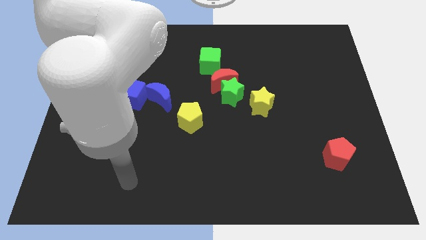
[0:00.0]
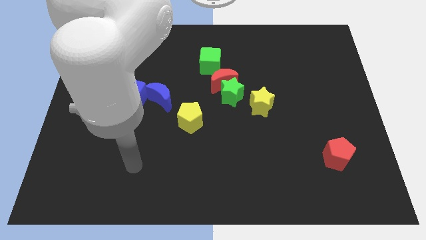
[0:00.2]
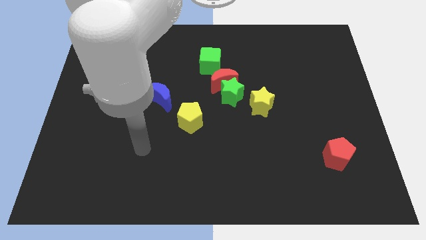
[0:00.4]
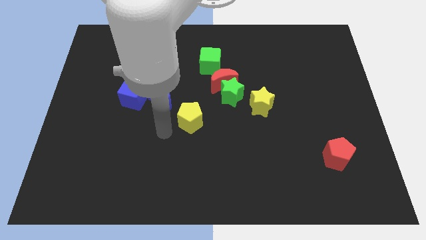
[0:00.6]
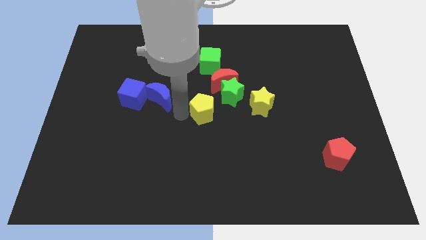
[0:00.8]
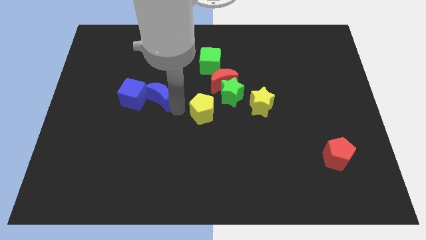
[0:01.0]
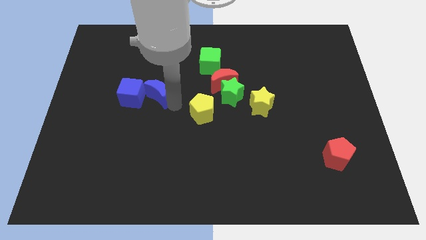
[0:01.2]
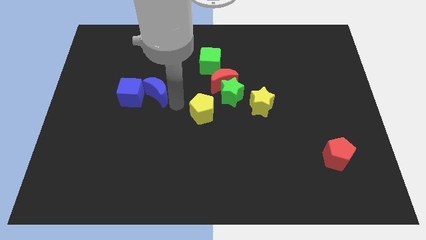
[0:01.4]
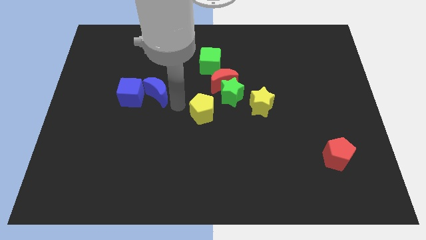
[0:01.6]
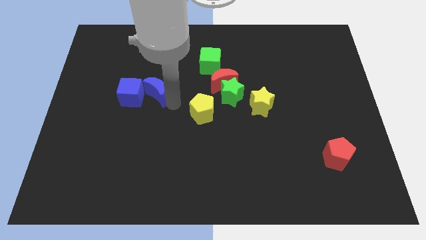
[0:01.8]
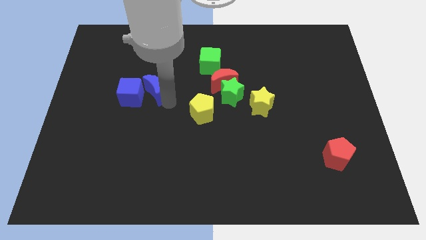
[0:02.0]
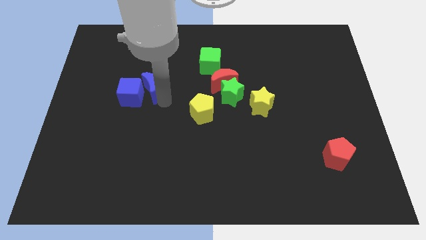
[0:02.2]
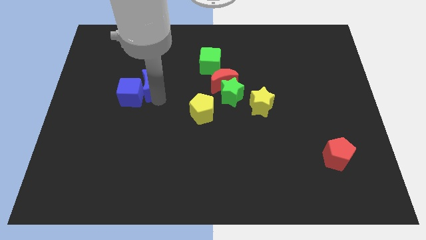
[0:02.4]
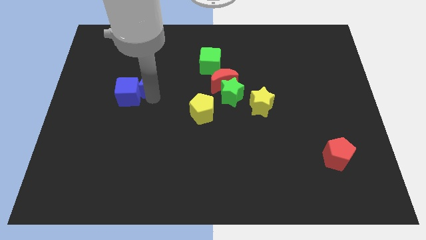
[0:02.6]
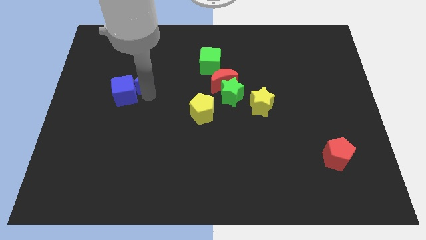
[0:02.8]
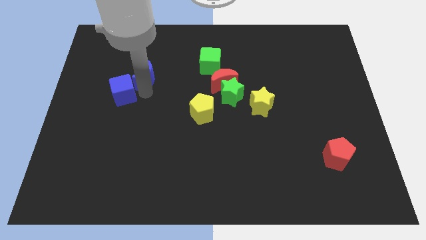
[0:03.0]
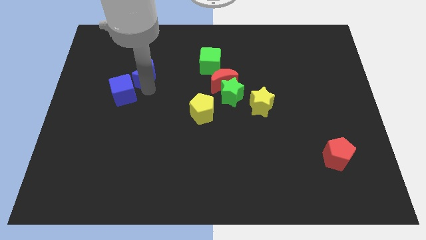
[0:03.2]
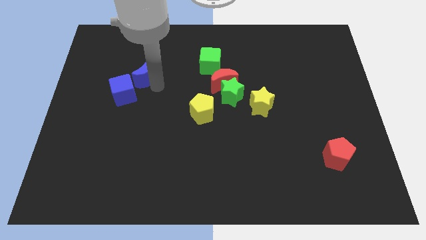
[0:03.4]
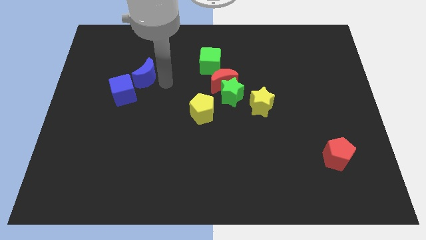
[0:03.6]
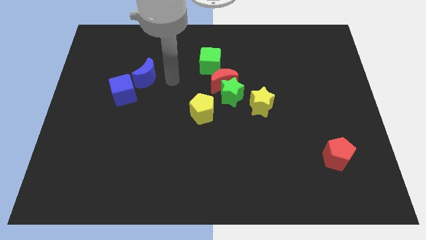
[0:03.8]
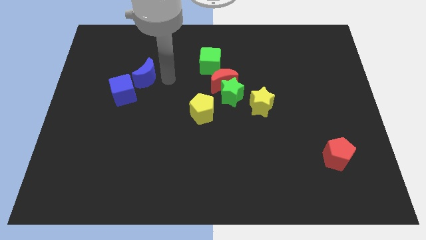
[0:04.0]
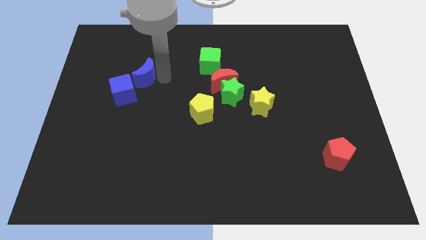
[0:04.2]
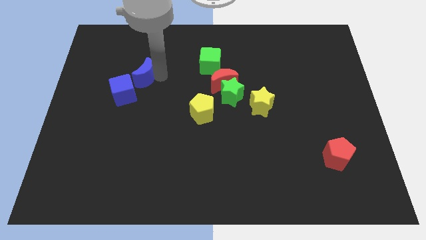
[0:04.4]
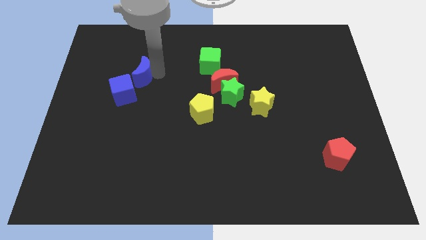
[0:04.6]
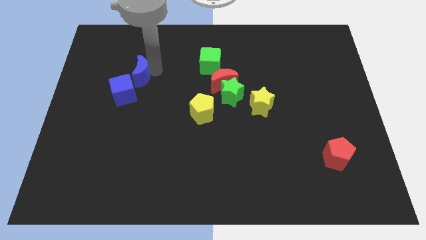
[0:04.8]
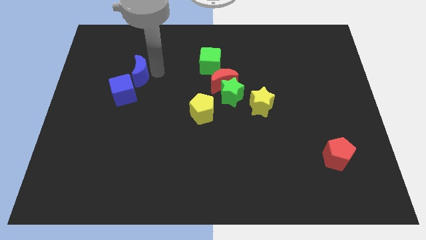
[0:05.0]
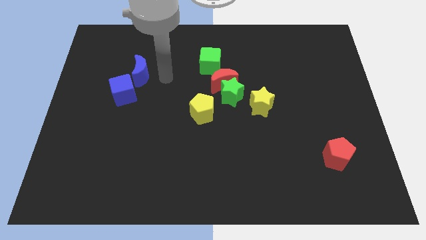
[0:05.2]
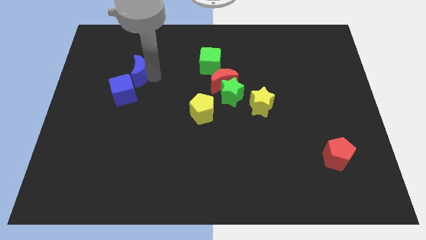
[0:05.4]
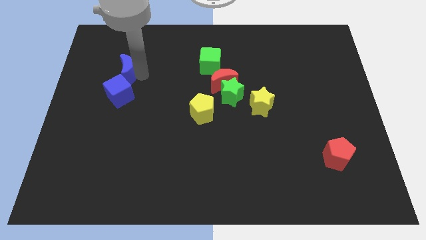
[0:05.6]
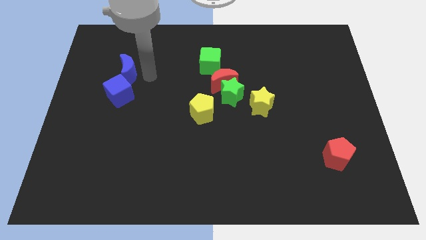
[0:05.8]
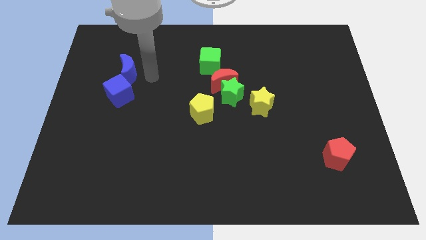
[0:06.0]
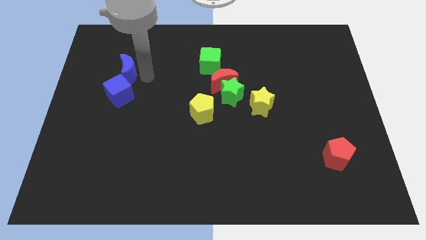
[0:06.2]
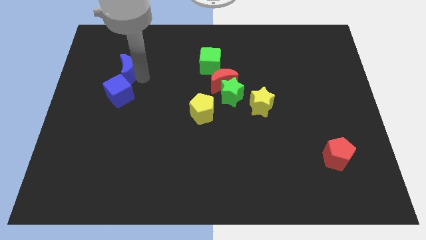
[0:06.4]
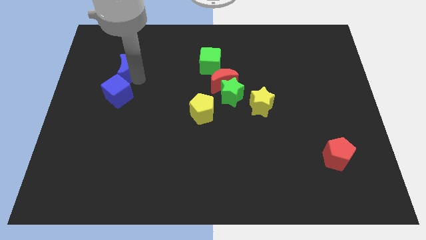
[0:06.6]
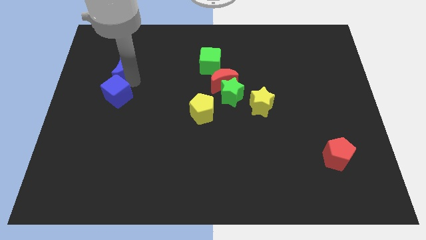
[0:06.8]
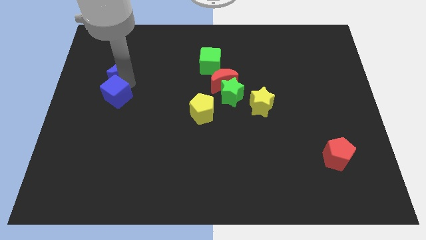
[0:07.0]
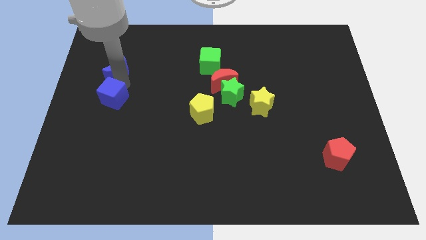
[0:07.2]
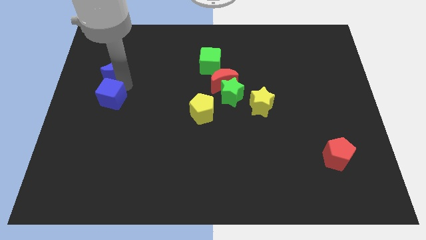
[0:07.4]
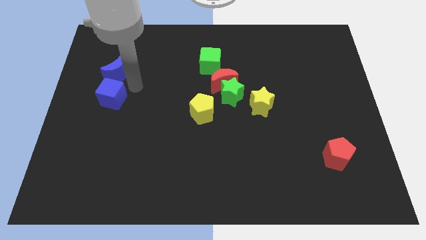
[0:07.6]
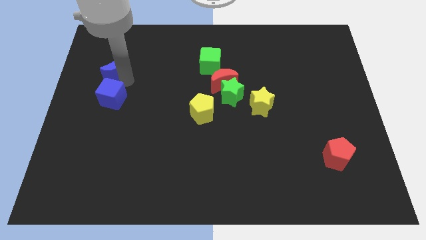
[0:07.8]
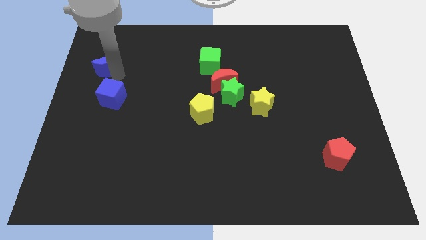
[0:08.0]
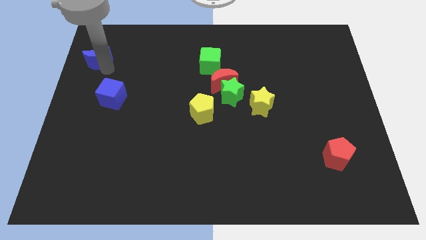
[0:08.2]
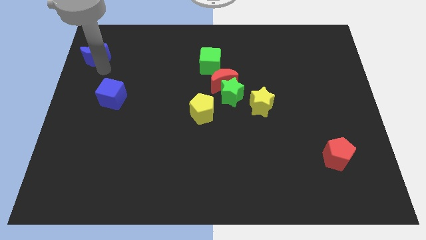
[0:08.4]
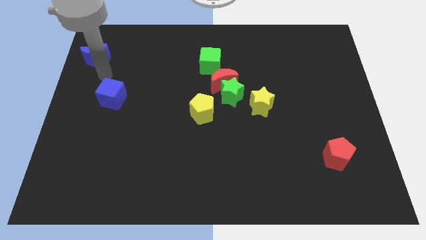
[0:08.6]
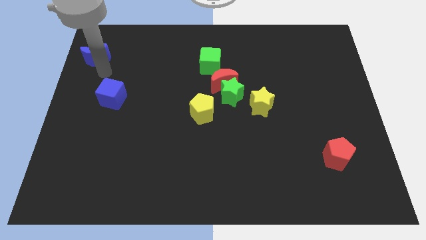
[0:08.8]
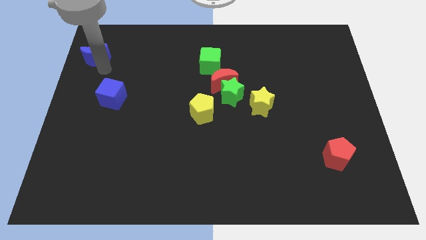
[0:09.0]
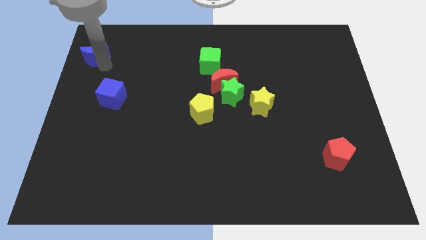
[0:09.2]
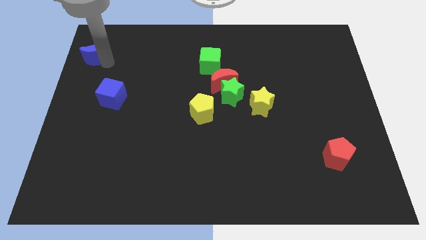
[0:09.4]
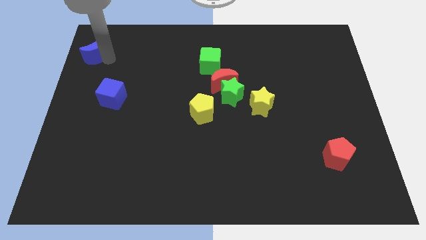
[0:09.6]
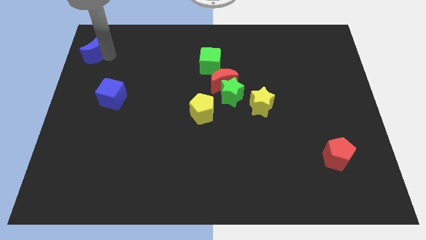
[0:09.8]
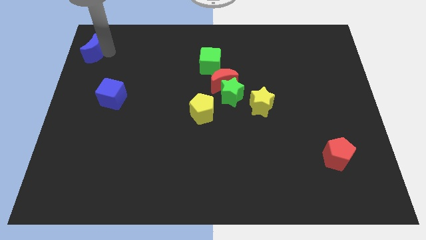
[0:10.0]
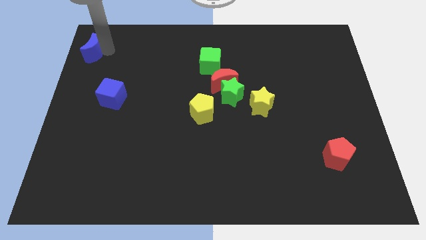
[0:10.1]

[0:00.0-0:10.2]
slide the blue moon to the top left
